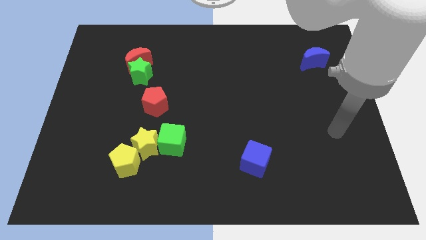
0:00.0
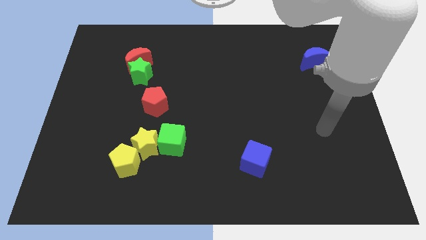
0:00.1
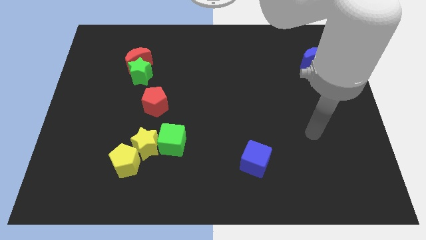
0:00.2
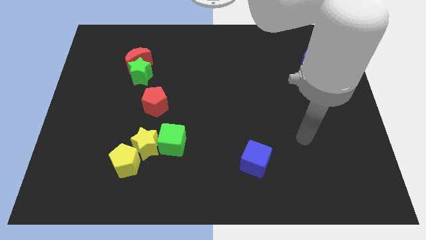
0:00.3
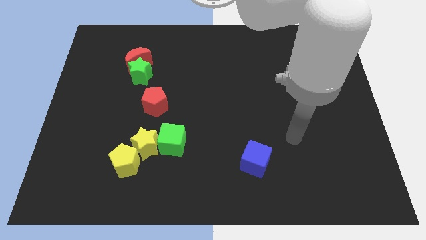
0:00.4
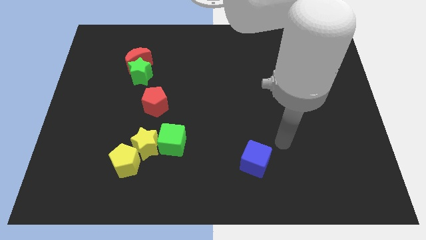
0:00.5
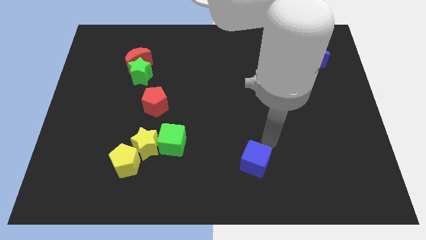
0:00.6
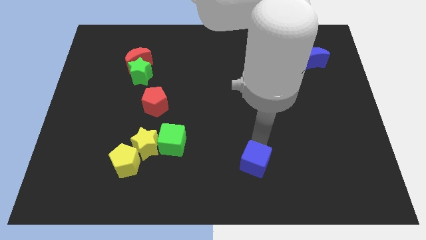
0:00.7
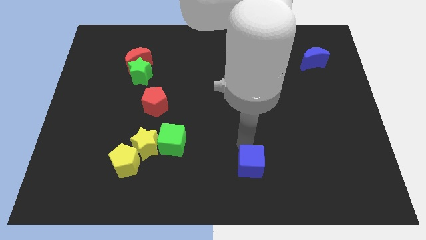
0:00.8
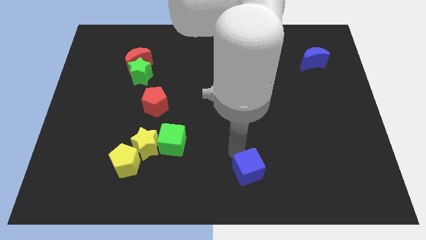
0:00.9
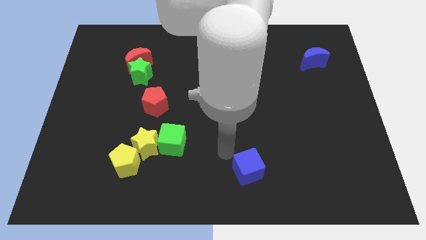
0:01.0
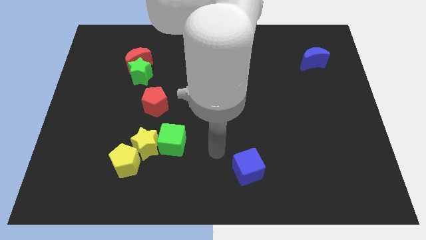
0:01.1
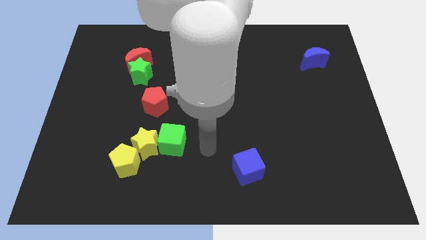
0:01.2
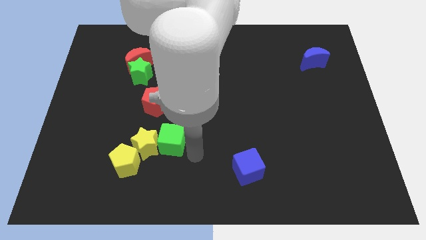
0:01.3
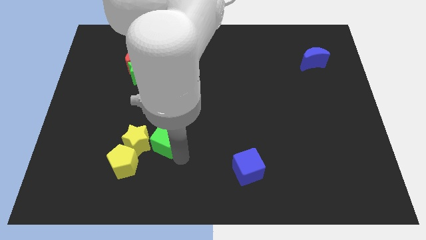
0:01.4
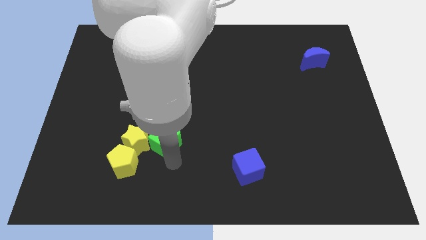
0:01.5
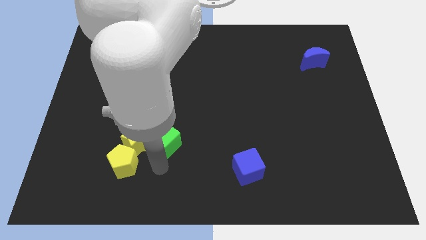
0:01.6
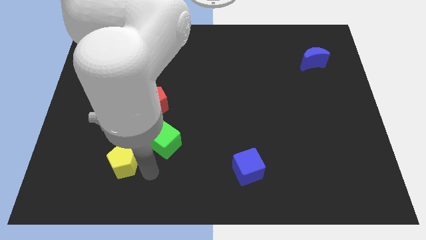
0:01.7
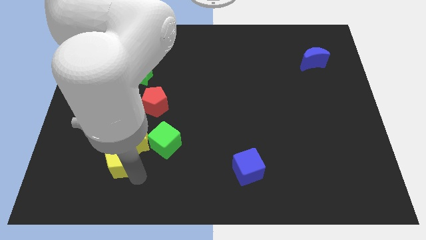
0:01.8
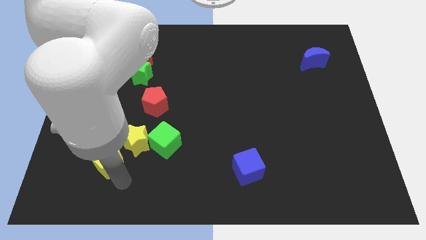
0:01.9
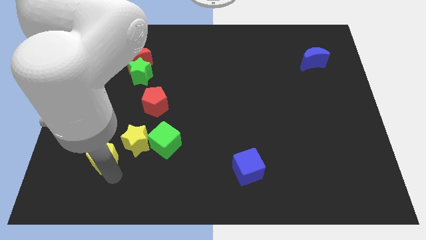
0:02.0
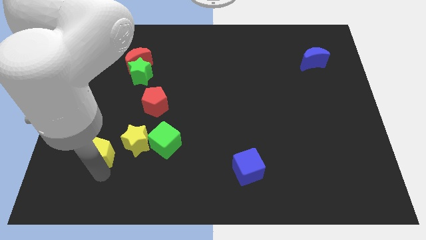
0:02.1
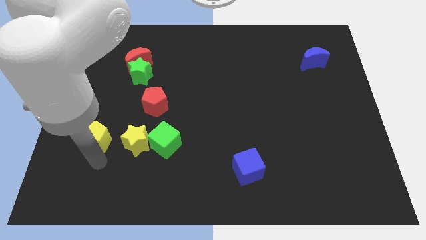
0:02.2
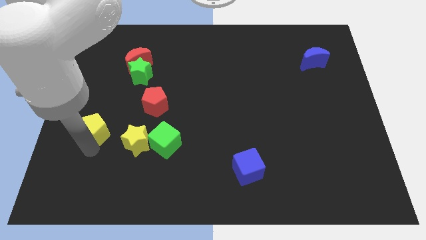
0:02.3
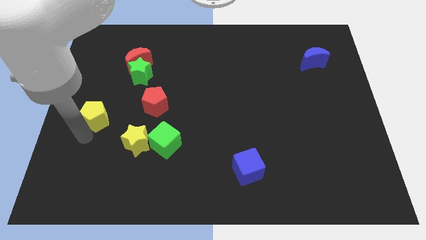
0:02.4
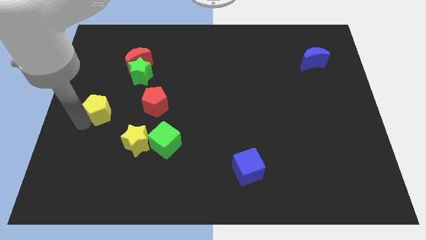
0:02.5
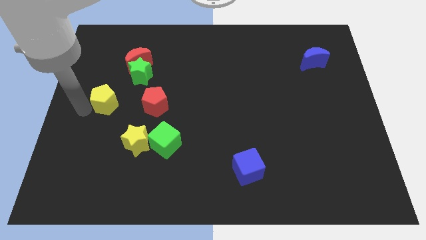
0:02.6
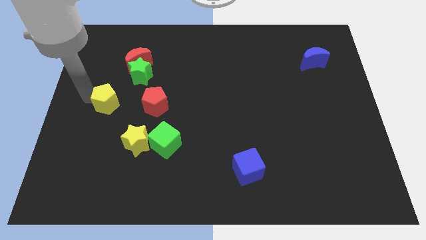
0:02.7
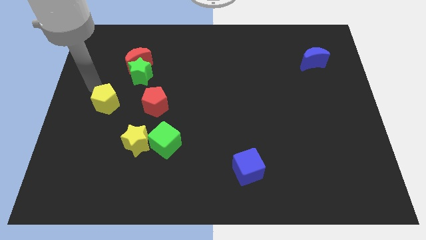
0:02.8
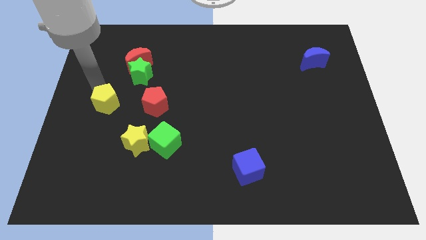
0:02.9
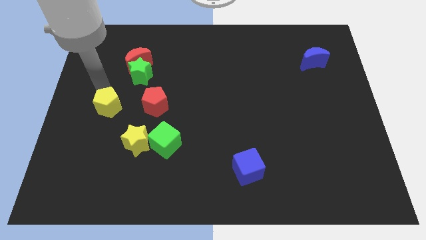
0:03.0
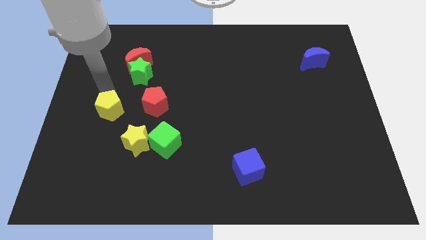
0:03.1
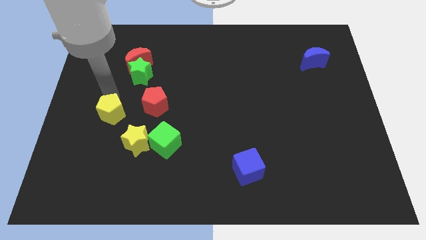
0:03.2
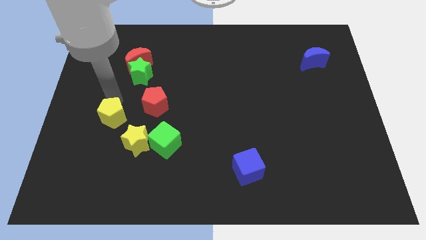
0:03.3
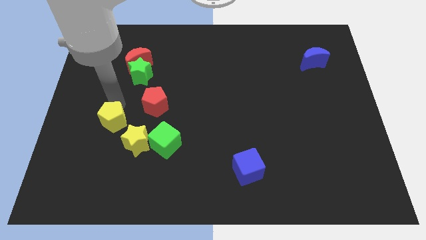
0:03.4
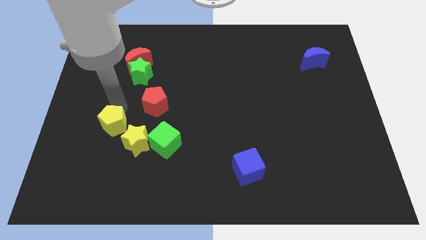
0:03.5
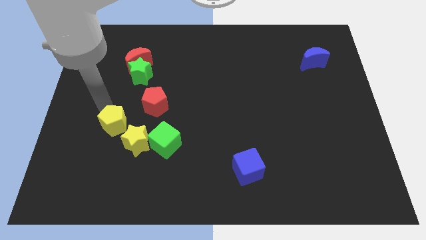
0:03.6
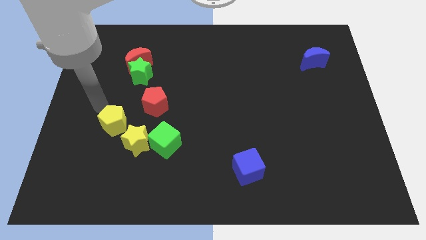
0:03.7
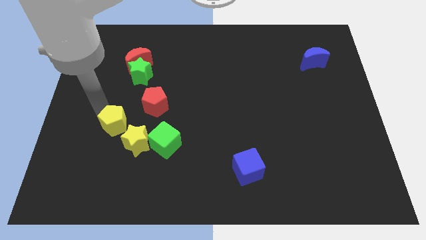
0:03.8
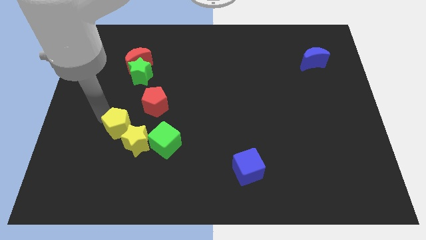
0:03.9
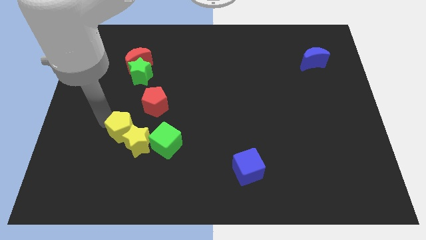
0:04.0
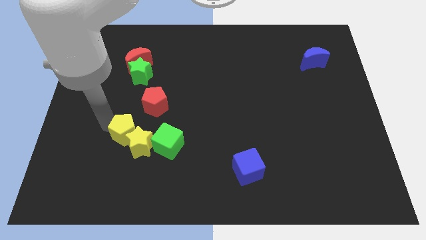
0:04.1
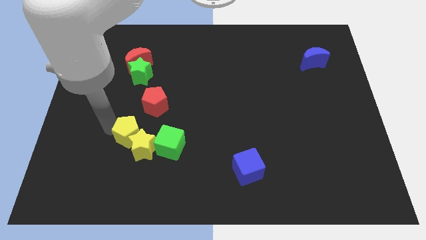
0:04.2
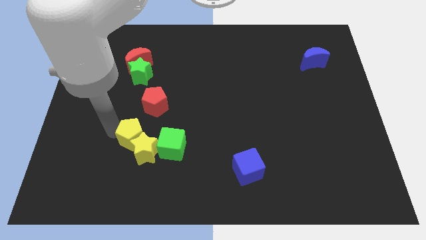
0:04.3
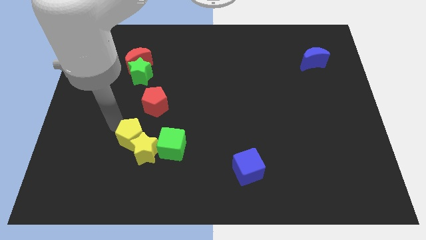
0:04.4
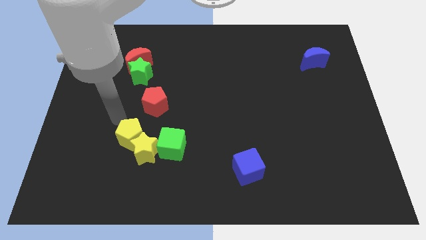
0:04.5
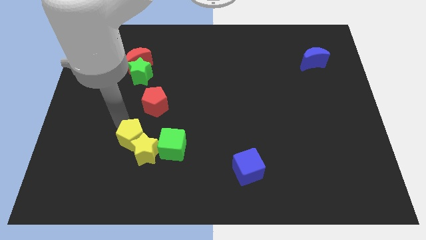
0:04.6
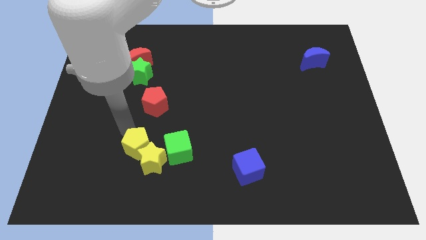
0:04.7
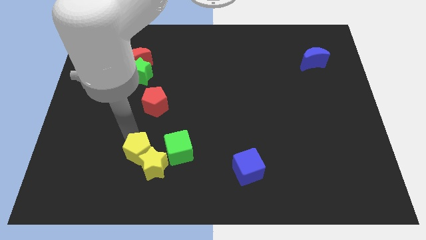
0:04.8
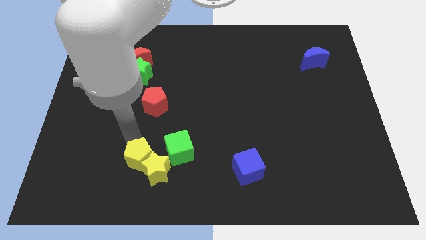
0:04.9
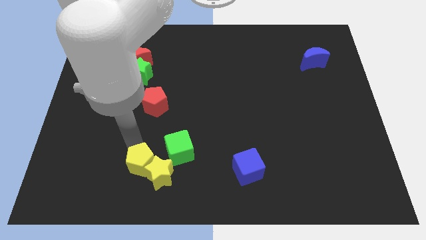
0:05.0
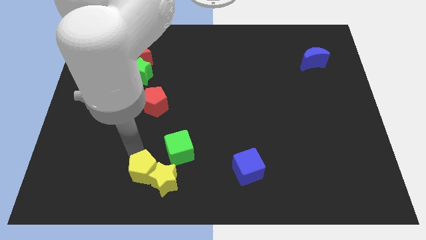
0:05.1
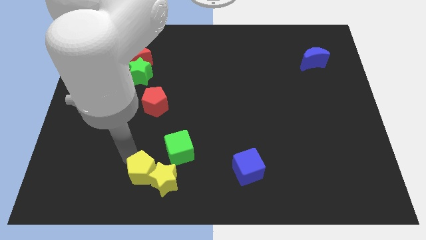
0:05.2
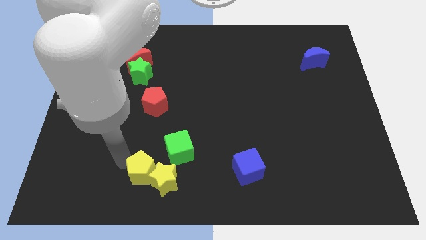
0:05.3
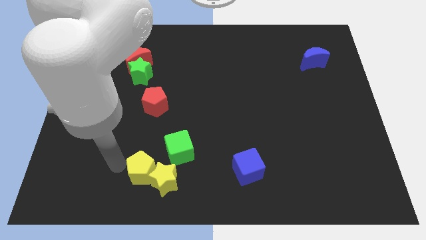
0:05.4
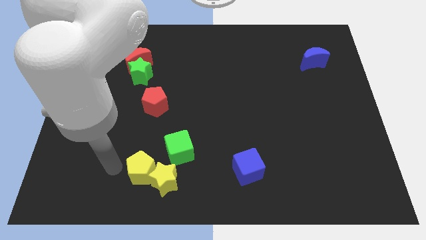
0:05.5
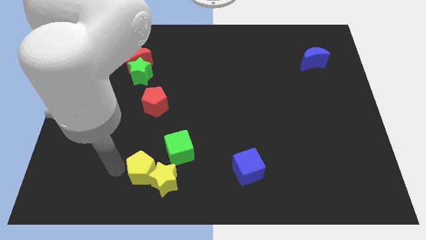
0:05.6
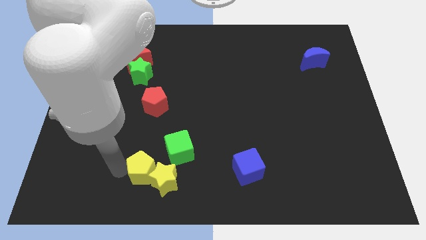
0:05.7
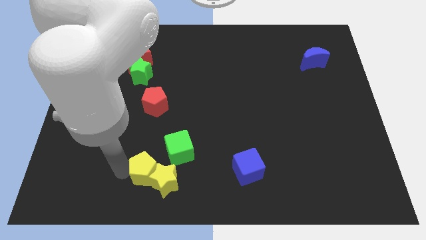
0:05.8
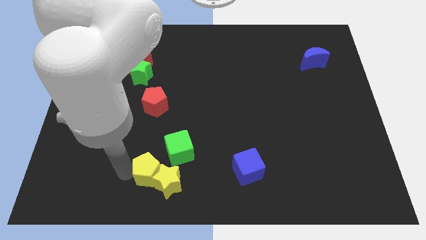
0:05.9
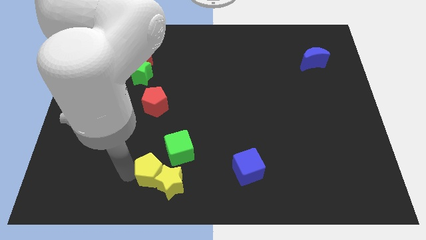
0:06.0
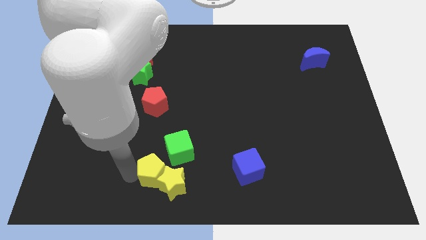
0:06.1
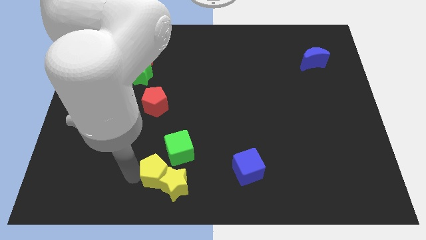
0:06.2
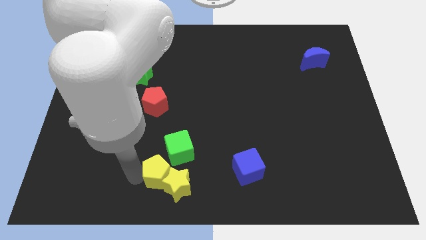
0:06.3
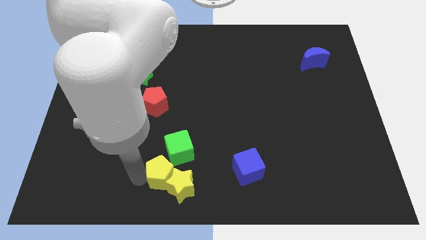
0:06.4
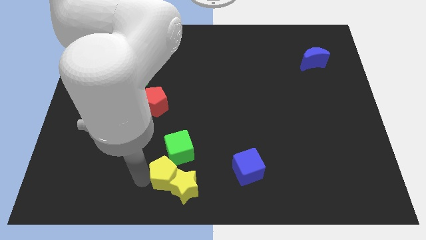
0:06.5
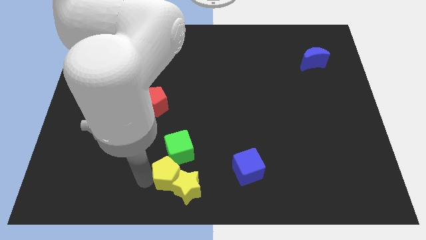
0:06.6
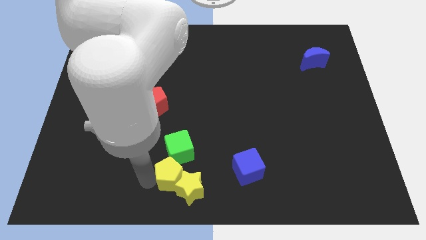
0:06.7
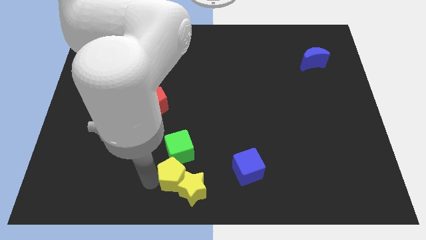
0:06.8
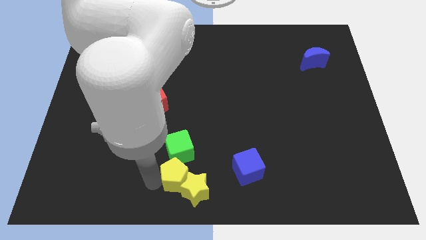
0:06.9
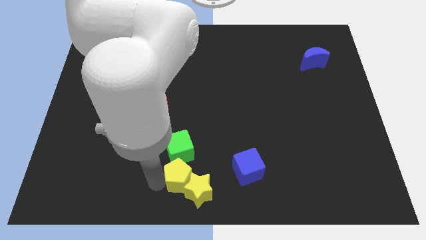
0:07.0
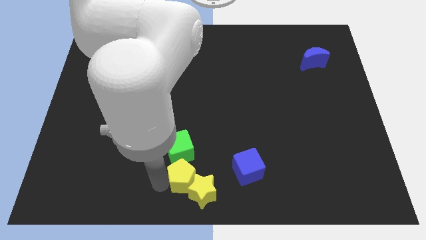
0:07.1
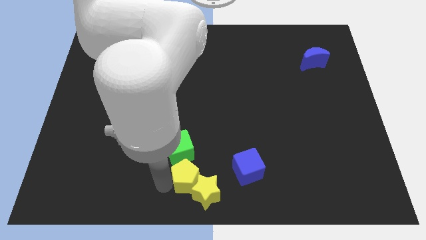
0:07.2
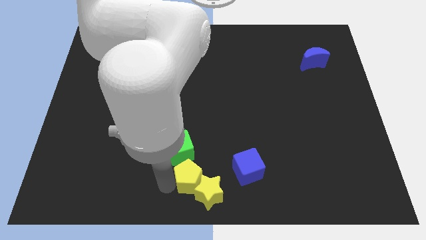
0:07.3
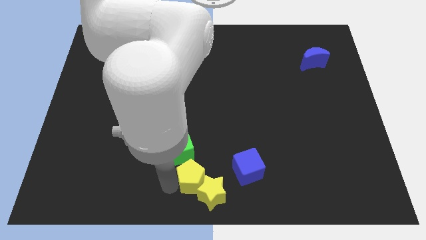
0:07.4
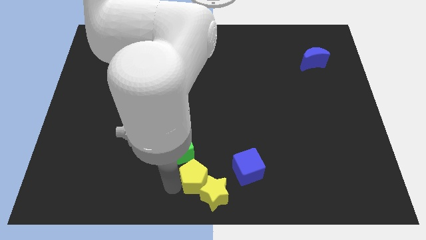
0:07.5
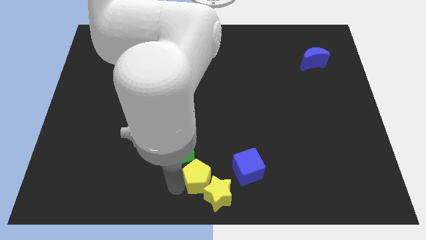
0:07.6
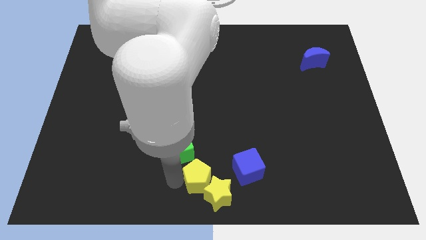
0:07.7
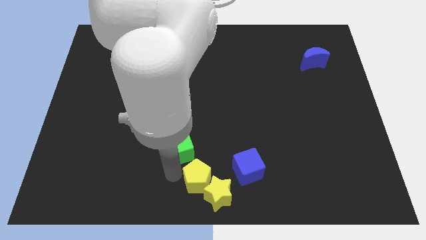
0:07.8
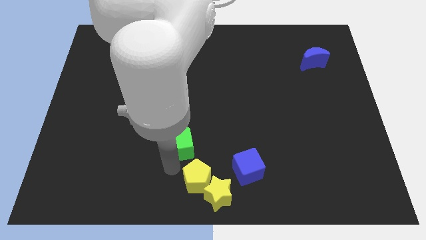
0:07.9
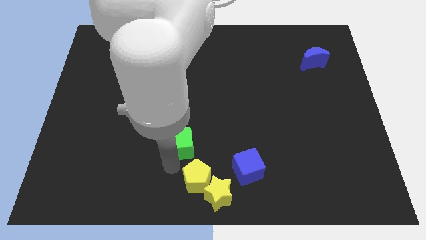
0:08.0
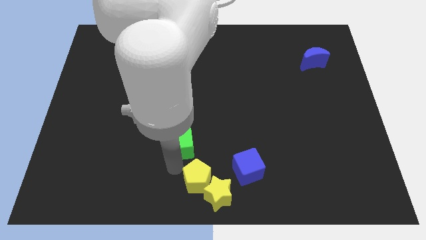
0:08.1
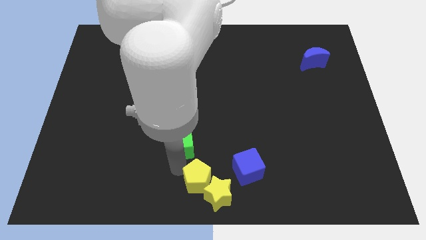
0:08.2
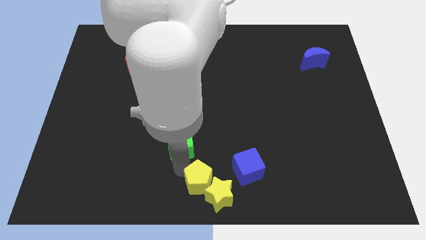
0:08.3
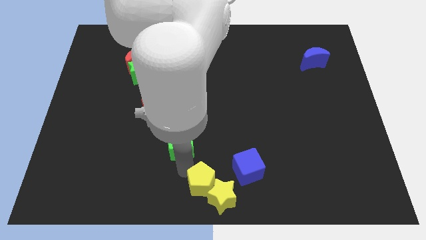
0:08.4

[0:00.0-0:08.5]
push the yellow pentagon to the bottom left of the blue cube
